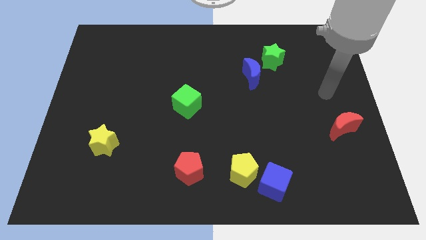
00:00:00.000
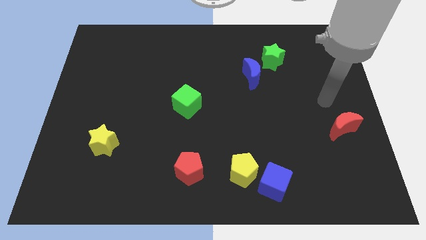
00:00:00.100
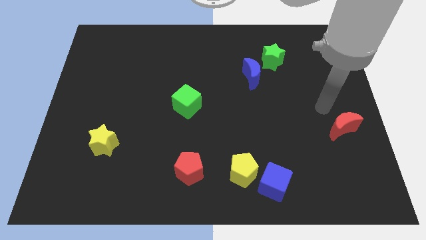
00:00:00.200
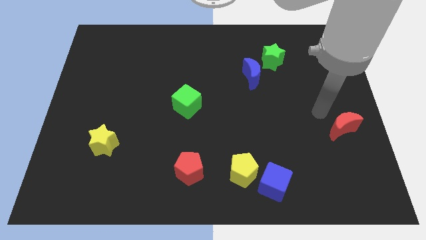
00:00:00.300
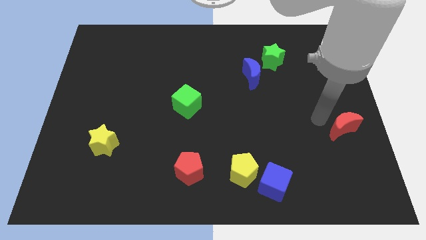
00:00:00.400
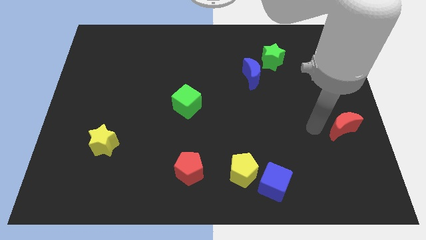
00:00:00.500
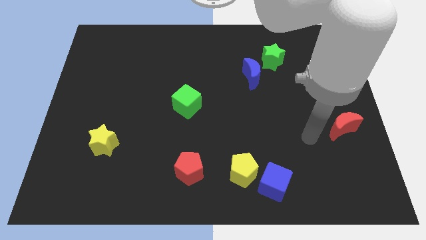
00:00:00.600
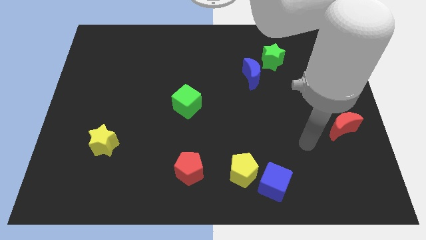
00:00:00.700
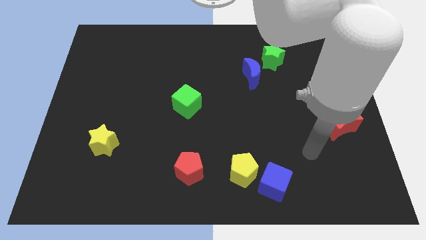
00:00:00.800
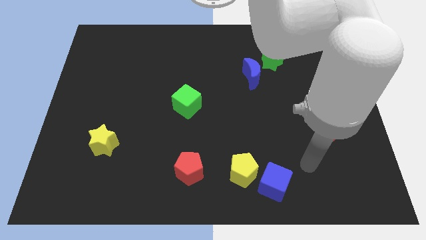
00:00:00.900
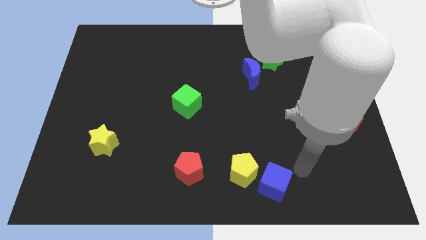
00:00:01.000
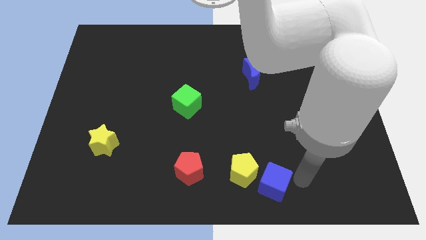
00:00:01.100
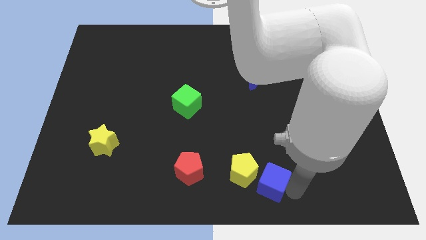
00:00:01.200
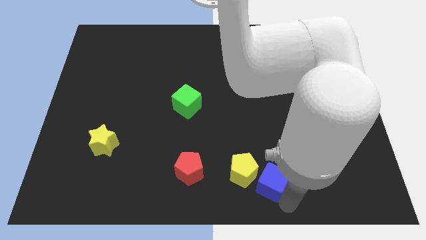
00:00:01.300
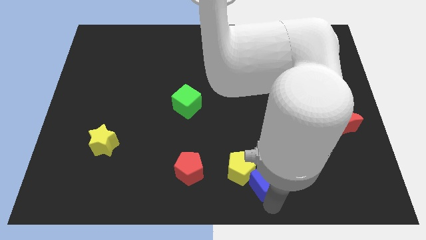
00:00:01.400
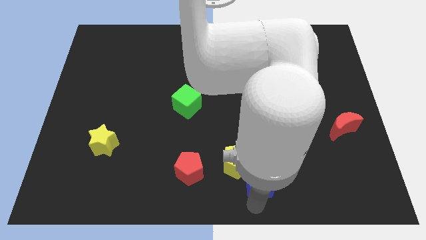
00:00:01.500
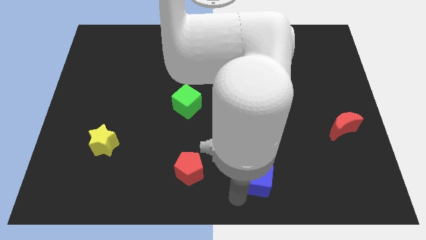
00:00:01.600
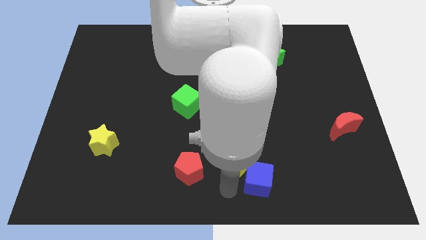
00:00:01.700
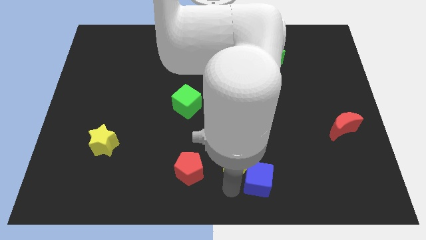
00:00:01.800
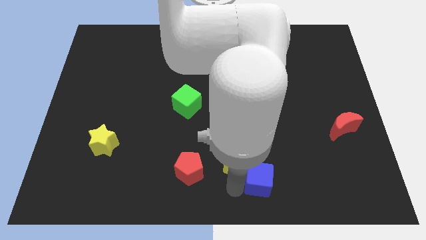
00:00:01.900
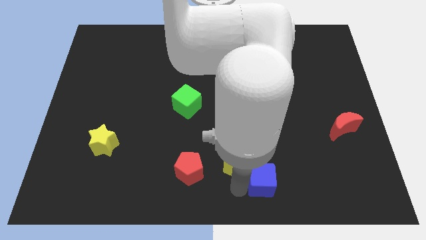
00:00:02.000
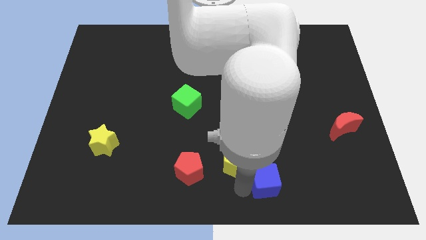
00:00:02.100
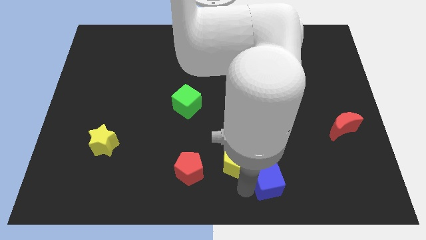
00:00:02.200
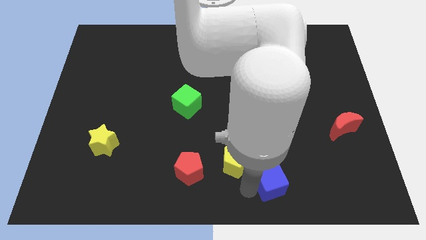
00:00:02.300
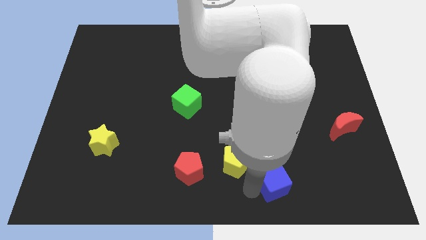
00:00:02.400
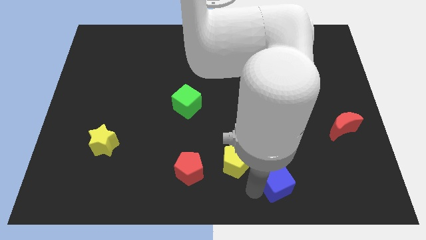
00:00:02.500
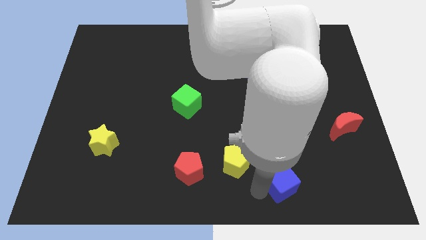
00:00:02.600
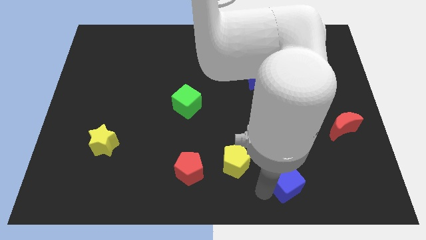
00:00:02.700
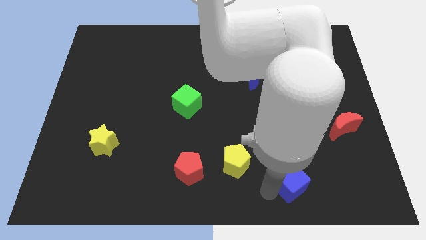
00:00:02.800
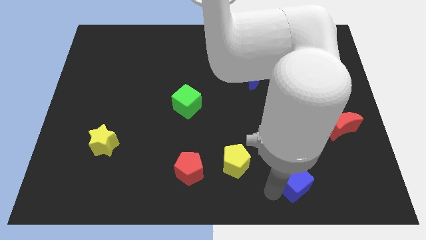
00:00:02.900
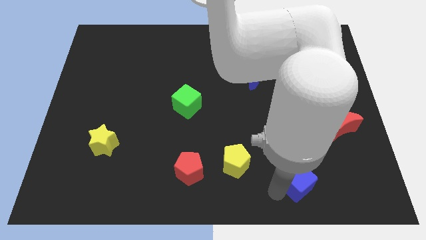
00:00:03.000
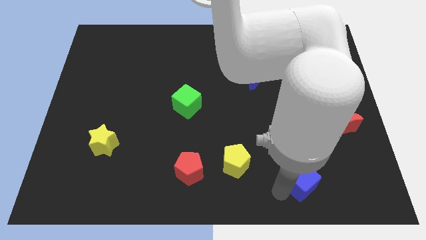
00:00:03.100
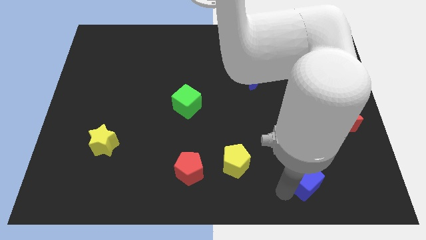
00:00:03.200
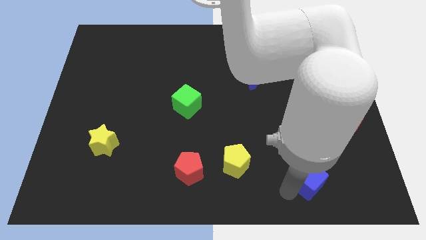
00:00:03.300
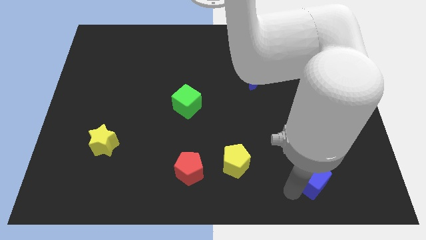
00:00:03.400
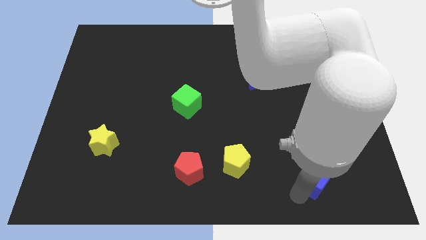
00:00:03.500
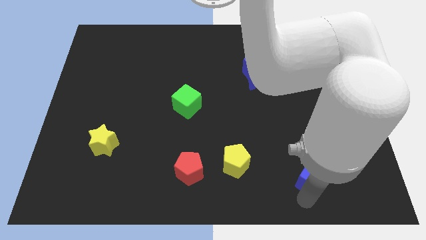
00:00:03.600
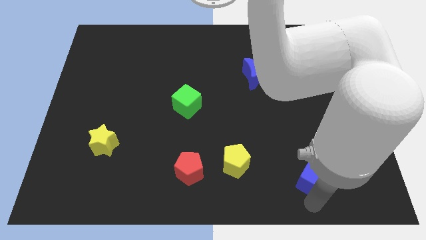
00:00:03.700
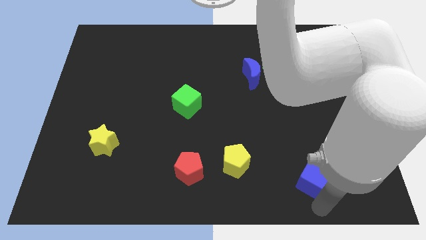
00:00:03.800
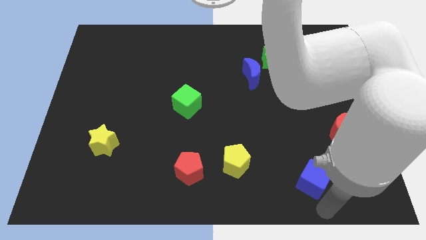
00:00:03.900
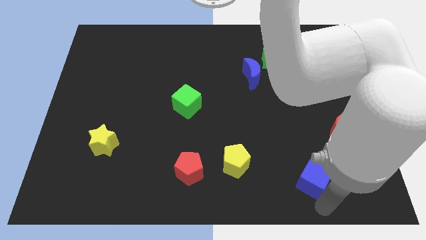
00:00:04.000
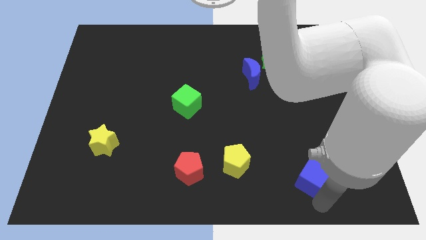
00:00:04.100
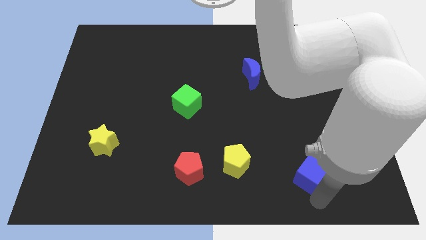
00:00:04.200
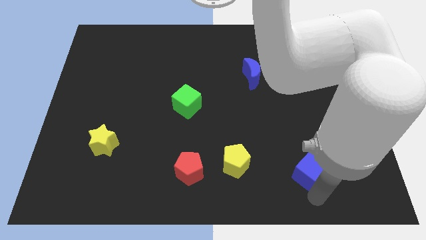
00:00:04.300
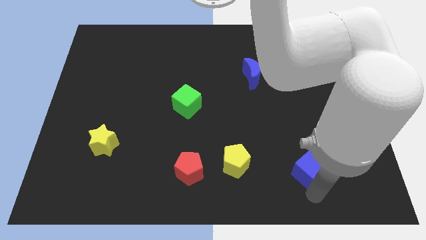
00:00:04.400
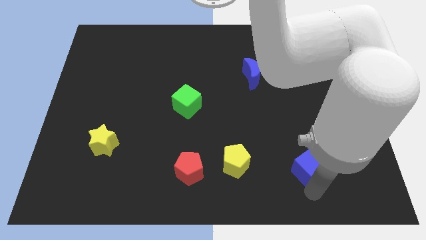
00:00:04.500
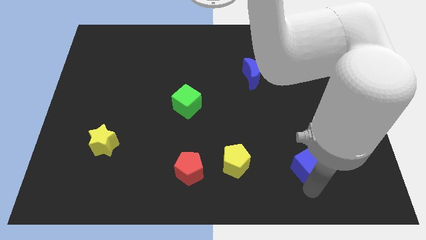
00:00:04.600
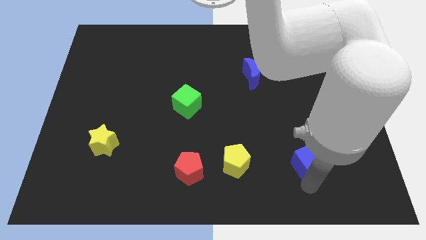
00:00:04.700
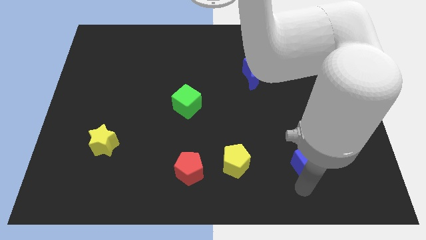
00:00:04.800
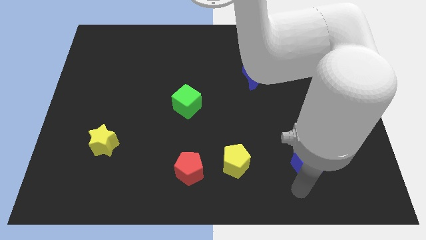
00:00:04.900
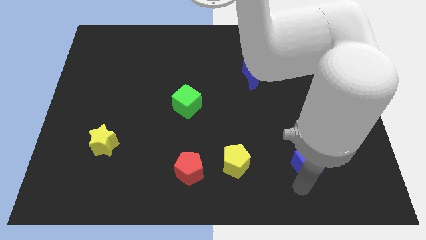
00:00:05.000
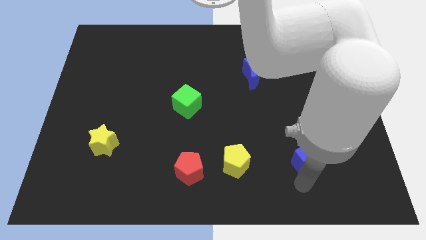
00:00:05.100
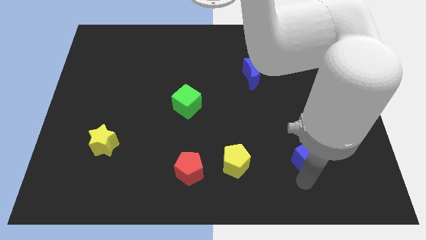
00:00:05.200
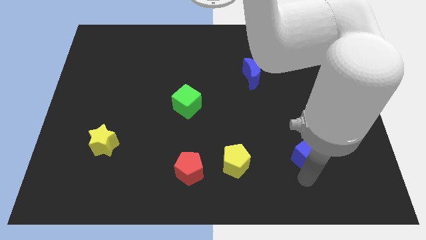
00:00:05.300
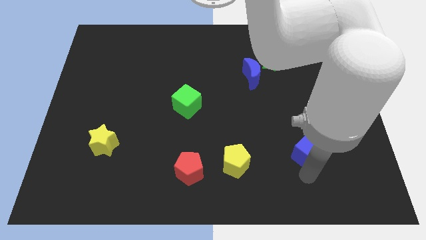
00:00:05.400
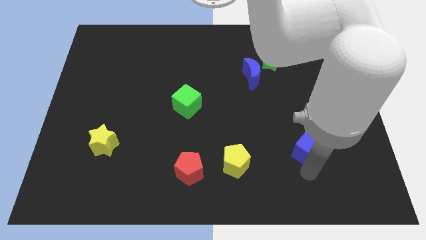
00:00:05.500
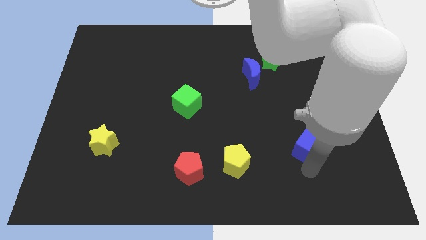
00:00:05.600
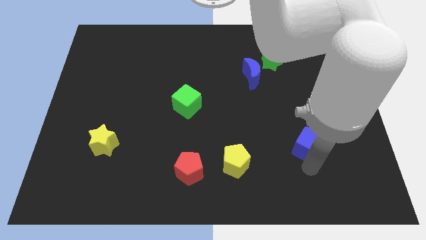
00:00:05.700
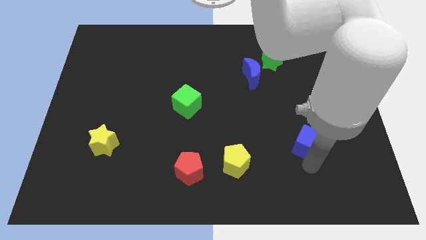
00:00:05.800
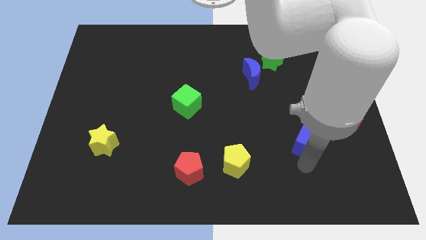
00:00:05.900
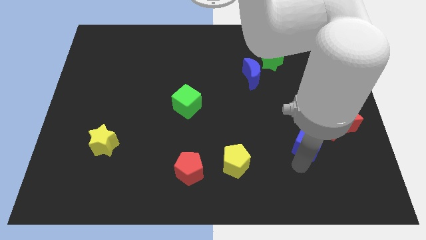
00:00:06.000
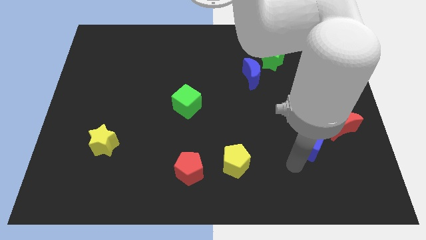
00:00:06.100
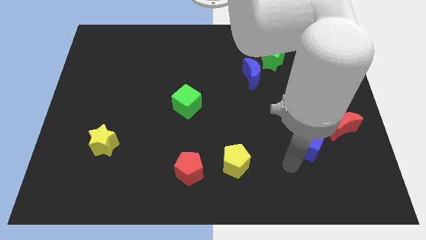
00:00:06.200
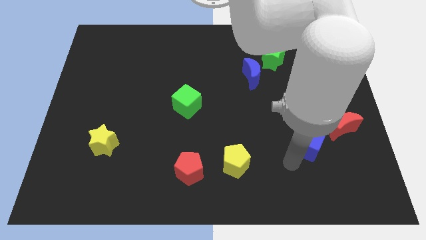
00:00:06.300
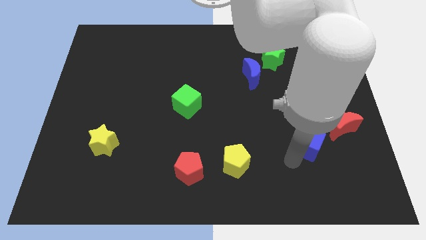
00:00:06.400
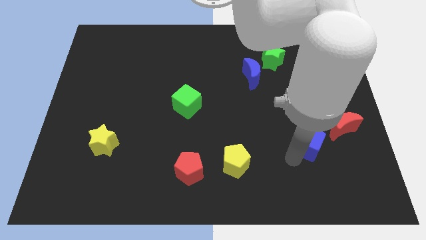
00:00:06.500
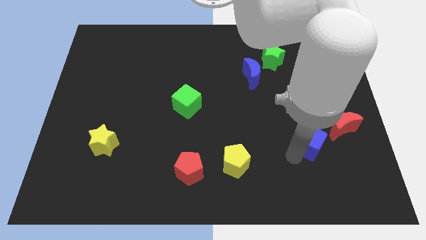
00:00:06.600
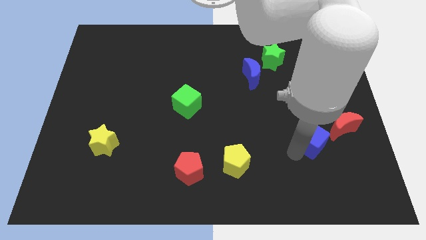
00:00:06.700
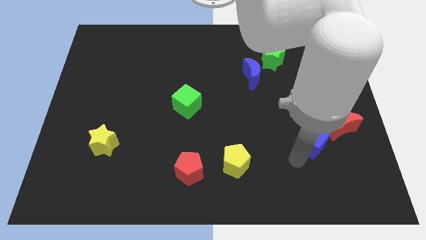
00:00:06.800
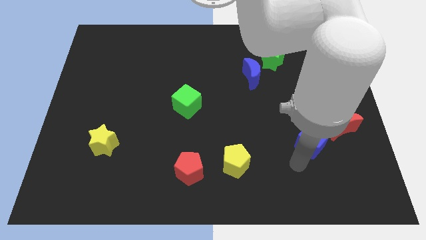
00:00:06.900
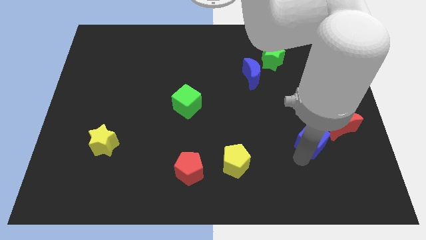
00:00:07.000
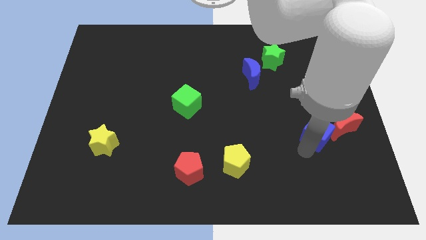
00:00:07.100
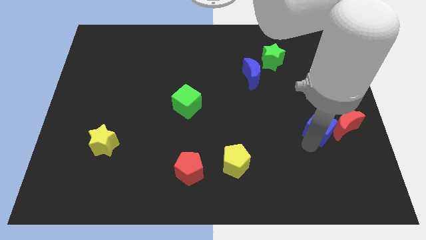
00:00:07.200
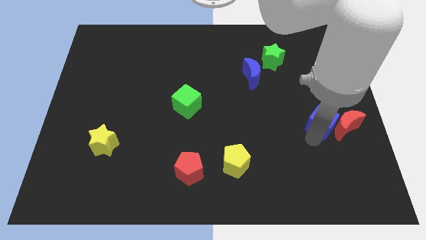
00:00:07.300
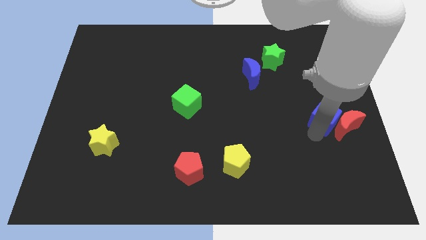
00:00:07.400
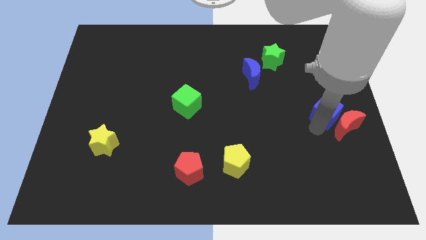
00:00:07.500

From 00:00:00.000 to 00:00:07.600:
move the blue cube to the right side
